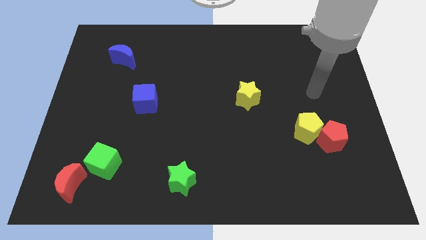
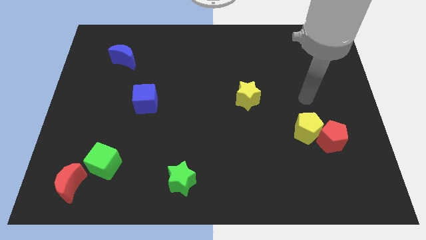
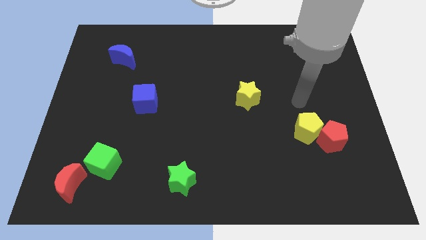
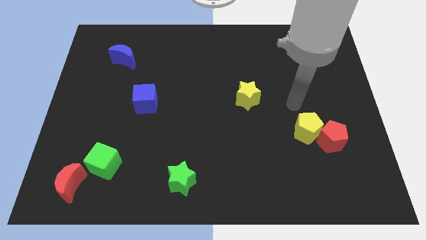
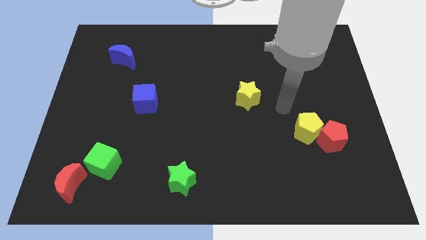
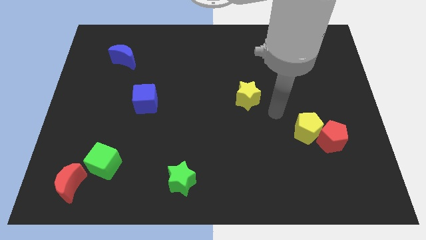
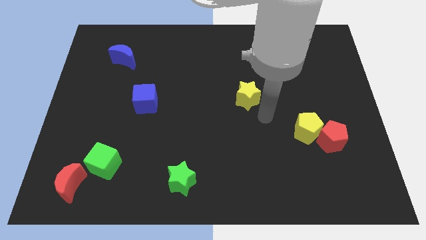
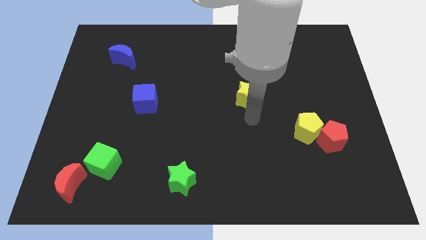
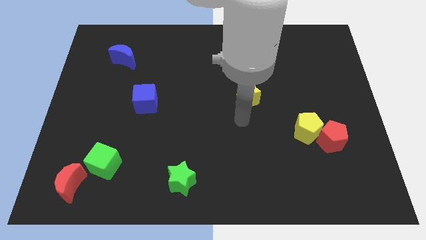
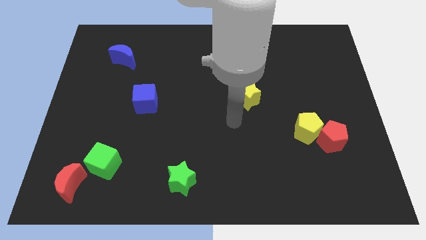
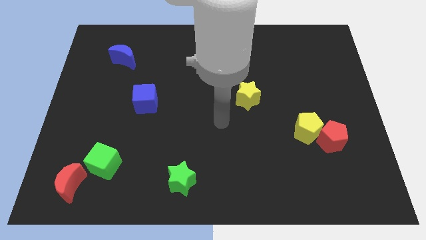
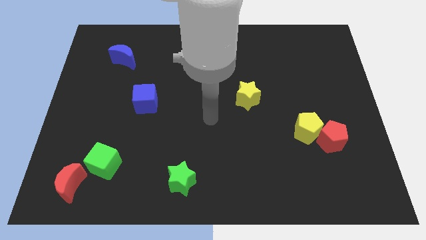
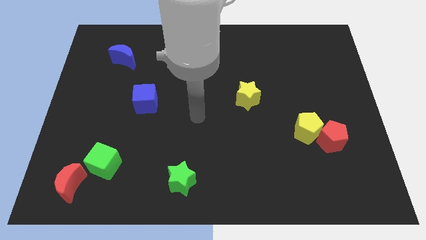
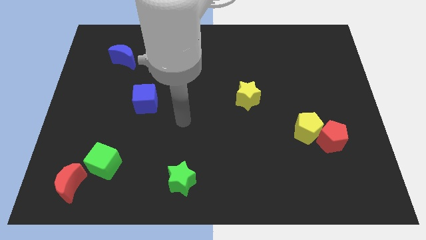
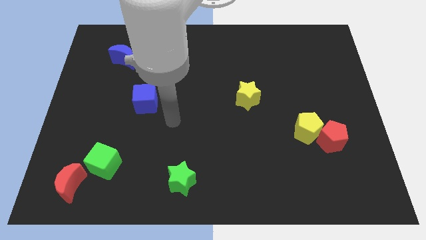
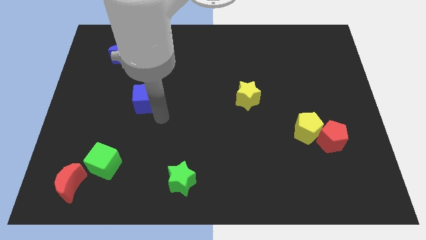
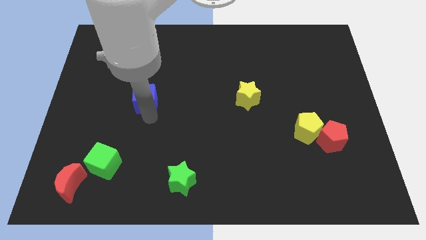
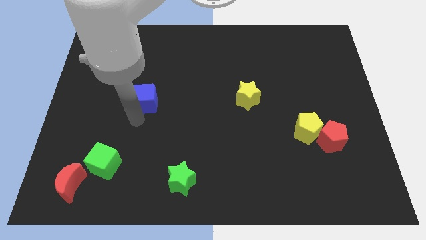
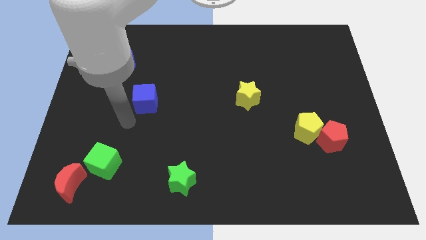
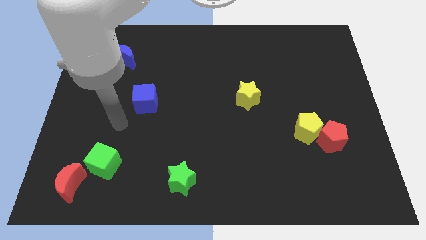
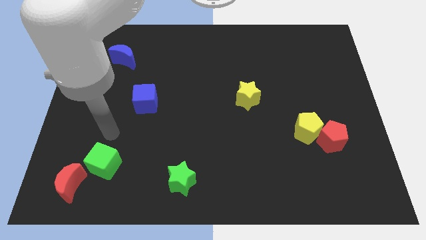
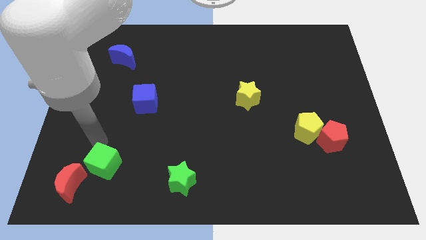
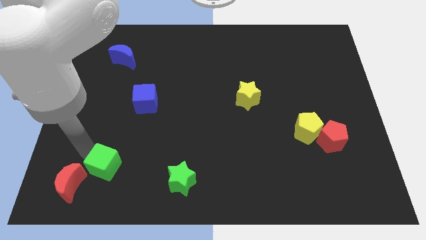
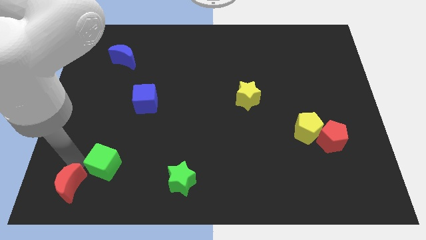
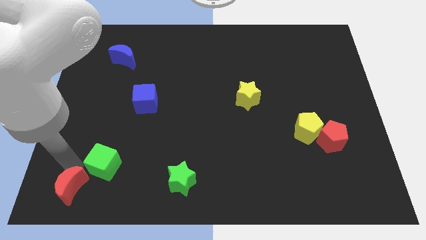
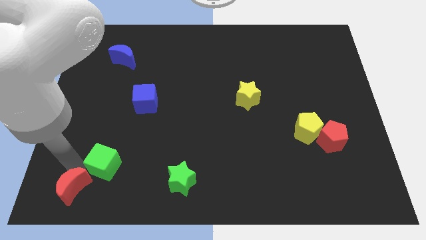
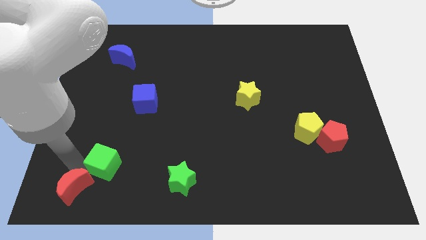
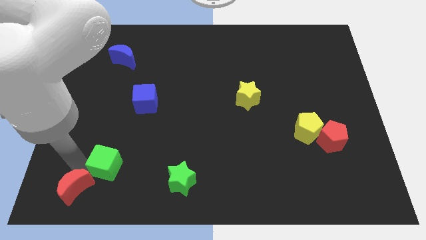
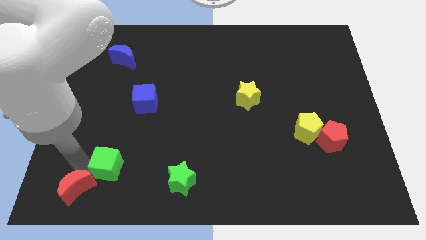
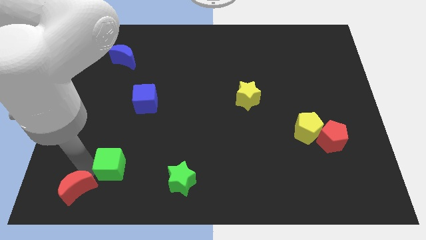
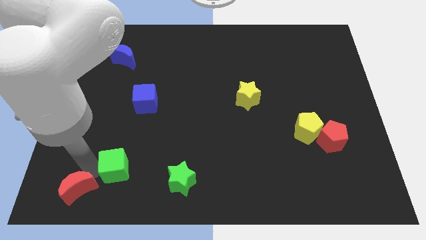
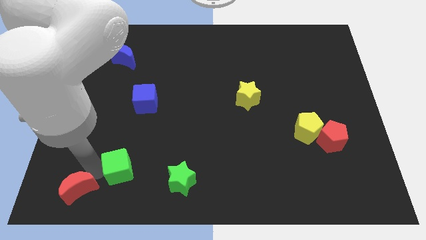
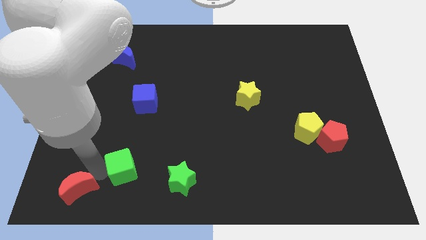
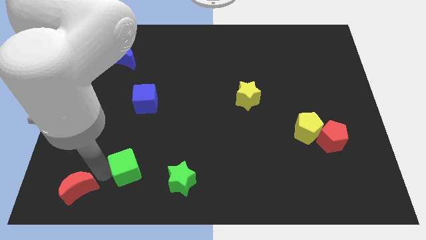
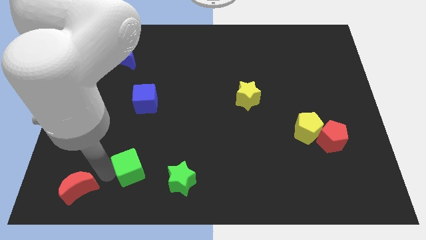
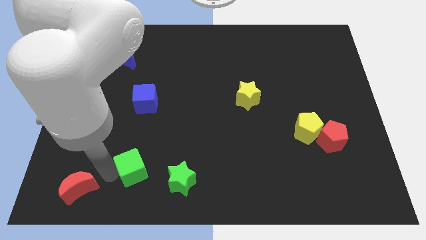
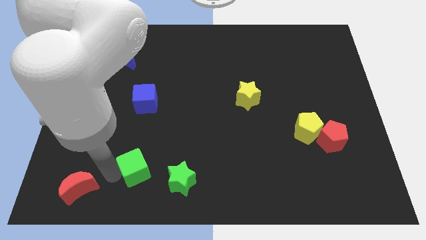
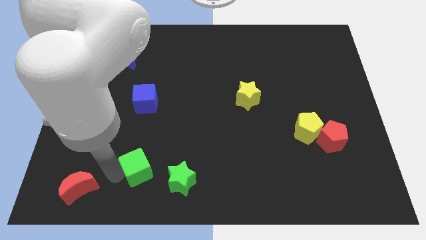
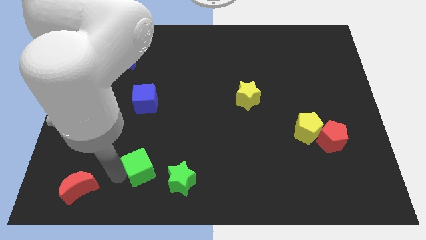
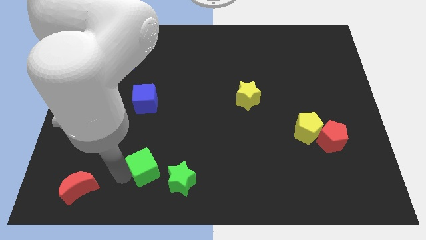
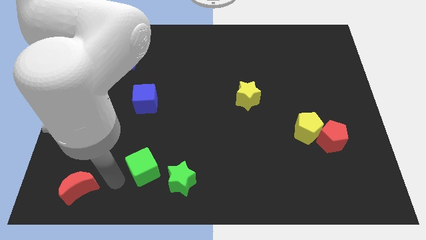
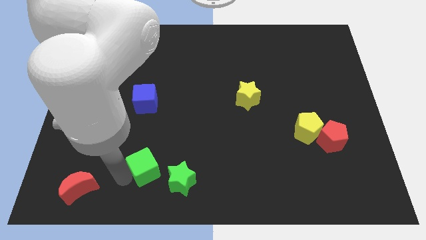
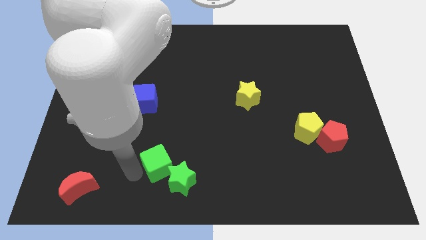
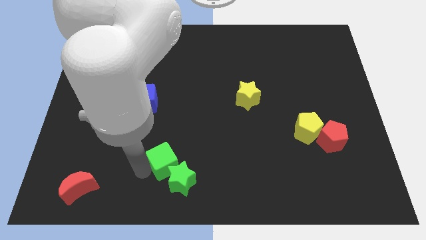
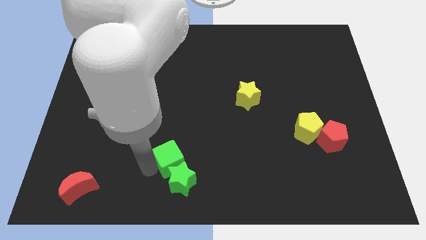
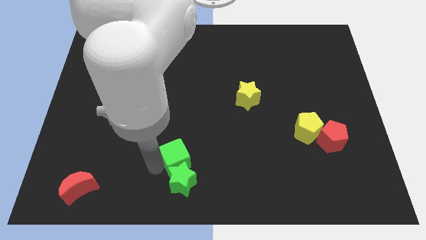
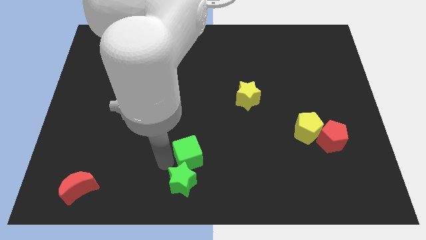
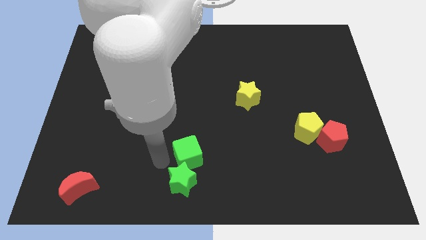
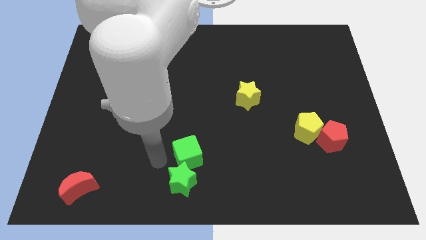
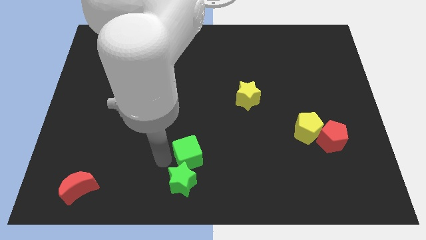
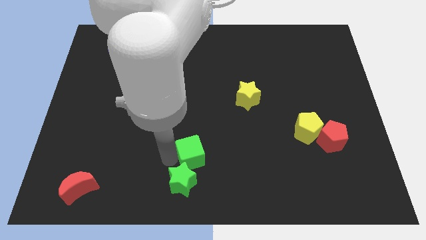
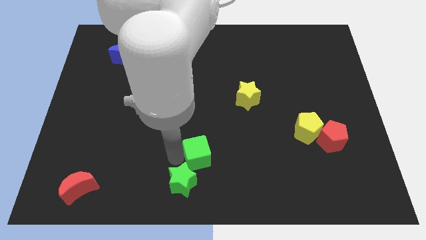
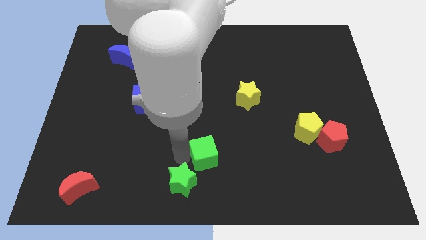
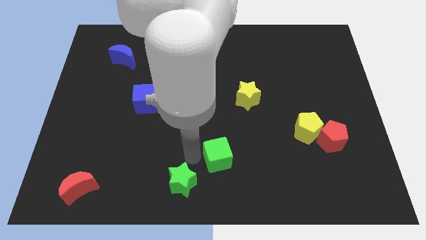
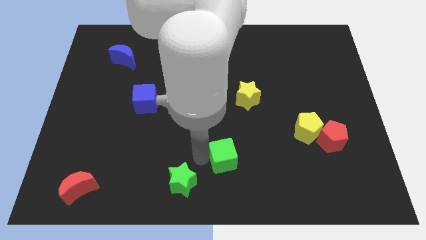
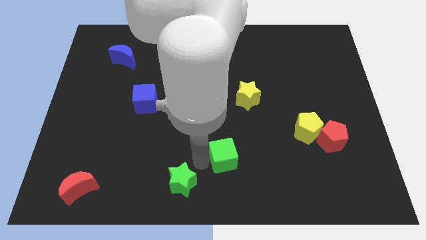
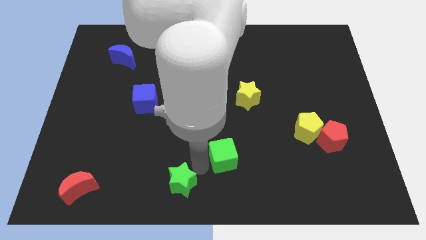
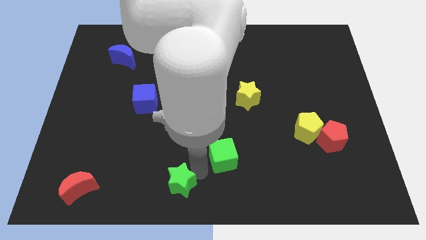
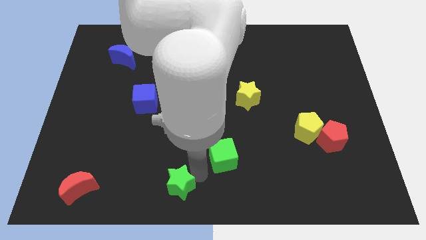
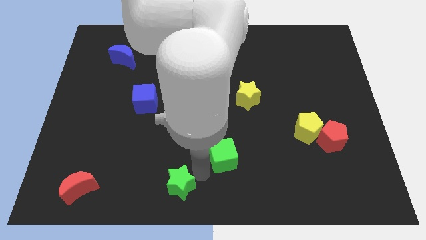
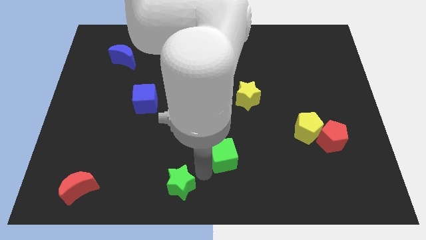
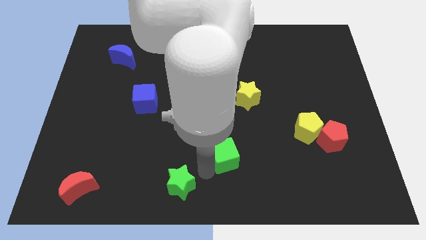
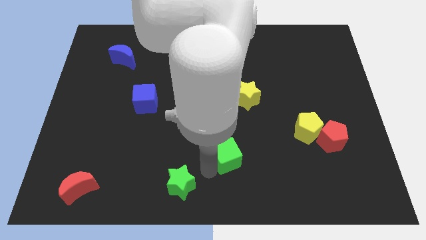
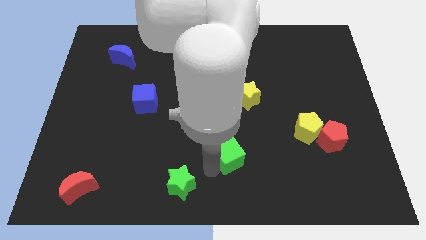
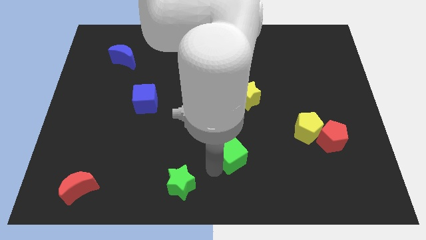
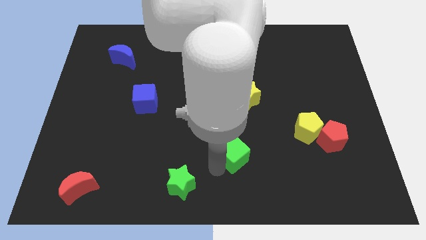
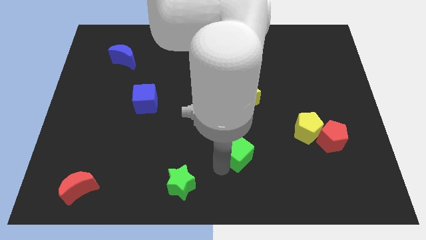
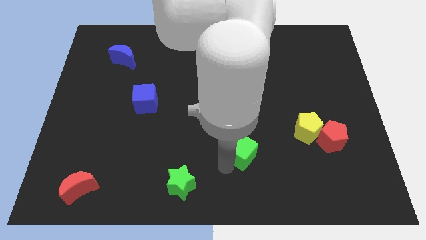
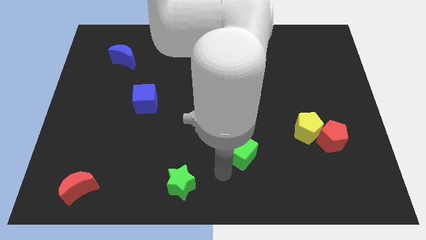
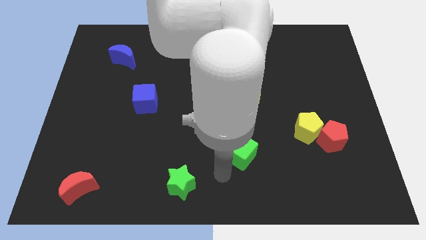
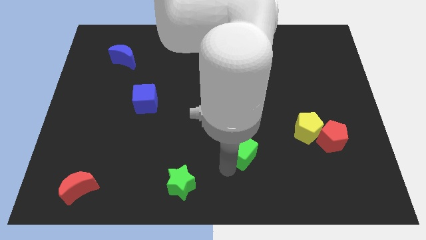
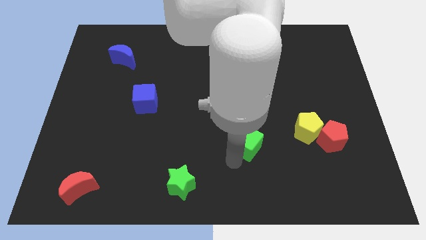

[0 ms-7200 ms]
move the green cube left of the yellow pentagon
